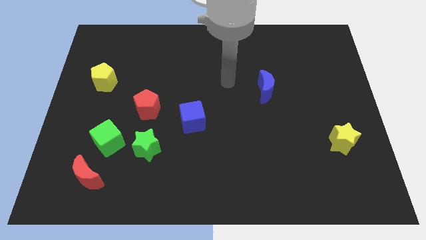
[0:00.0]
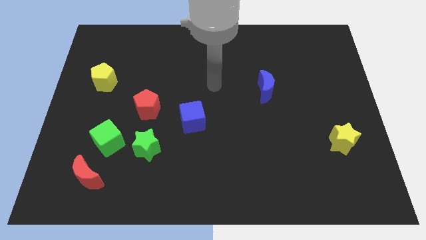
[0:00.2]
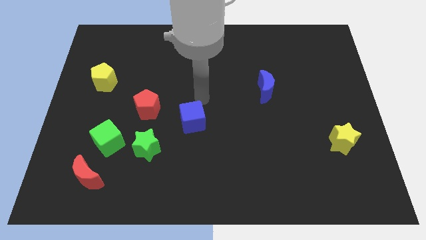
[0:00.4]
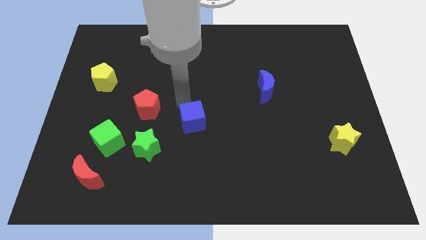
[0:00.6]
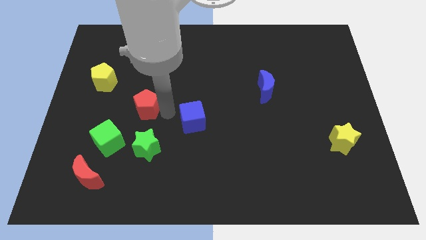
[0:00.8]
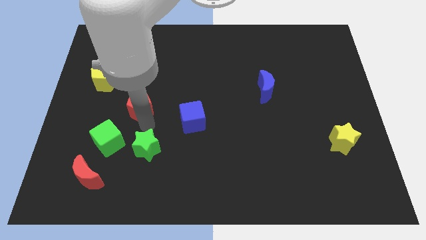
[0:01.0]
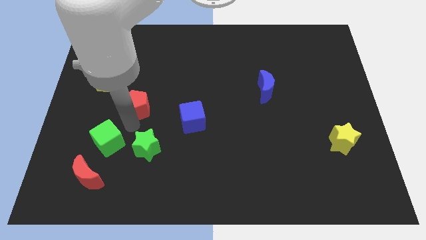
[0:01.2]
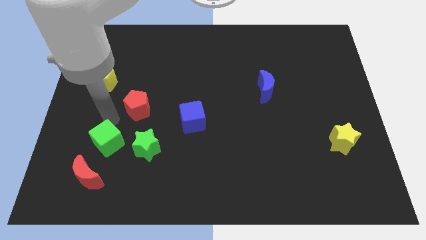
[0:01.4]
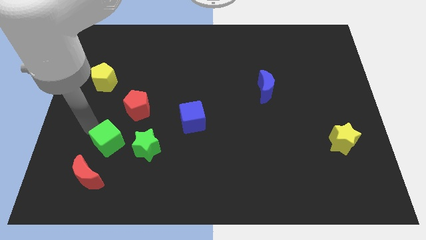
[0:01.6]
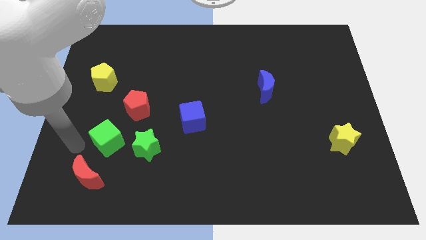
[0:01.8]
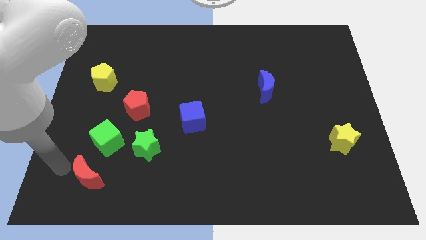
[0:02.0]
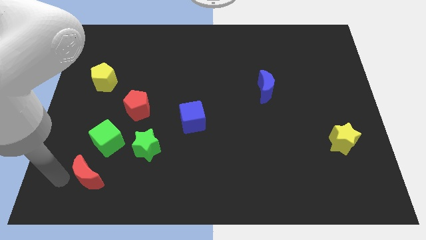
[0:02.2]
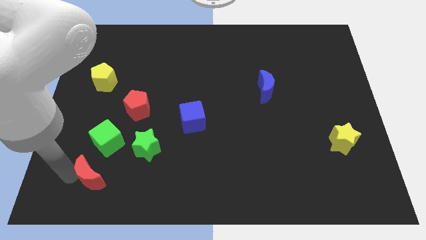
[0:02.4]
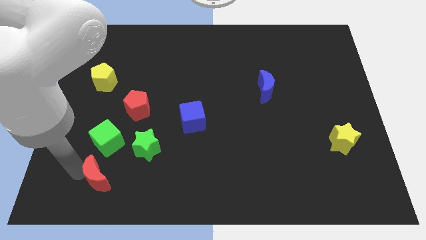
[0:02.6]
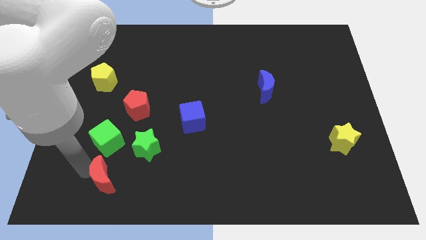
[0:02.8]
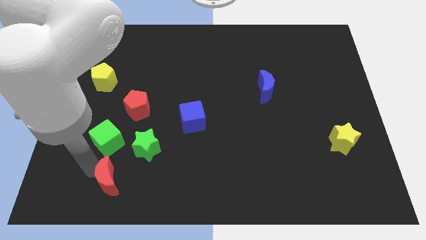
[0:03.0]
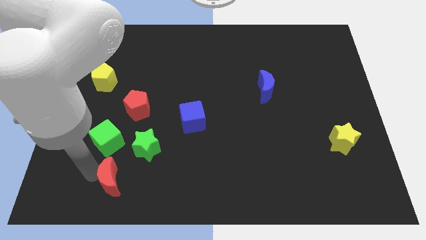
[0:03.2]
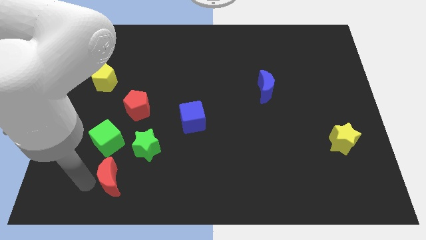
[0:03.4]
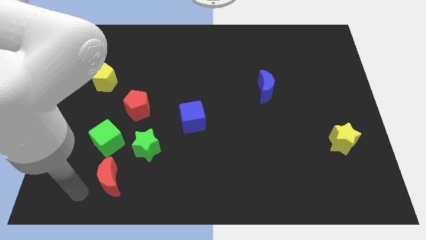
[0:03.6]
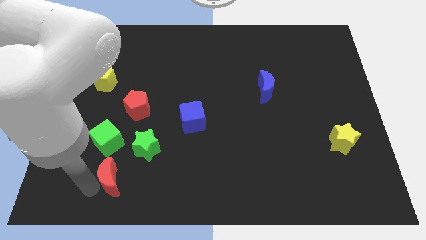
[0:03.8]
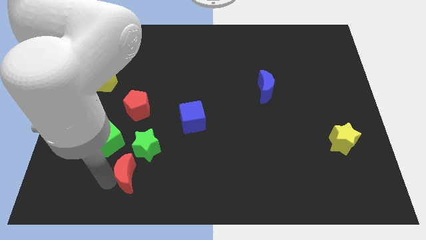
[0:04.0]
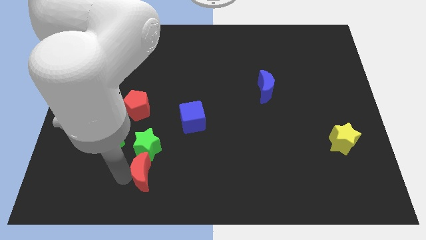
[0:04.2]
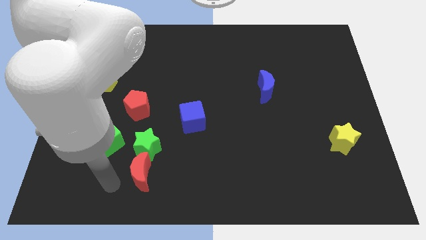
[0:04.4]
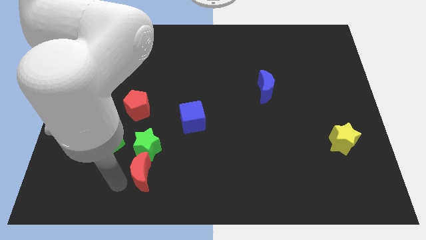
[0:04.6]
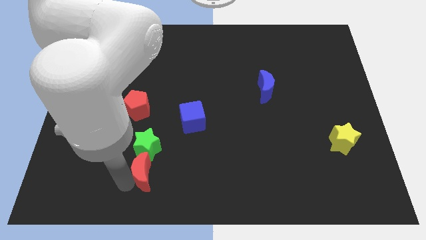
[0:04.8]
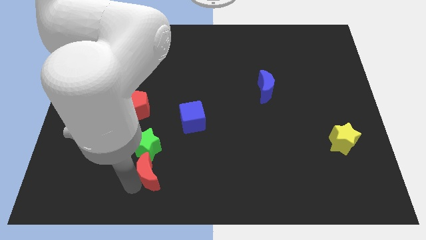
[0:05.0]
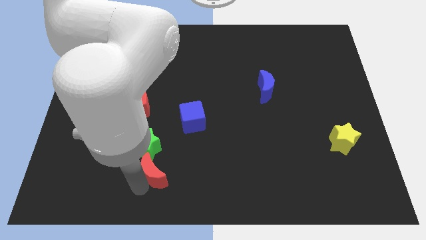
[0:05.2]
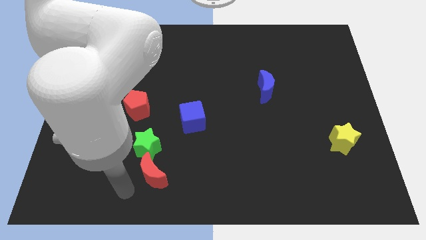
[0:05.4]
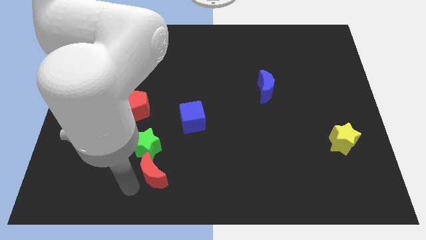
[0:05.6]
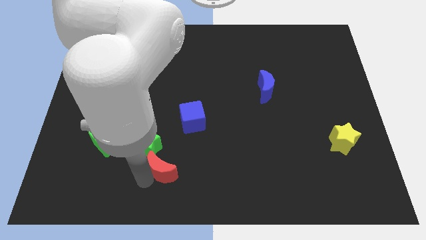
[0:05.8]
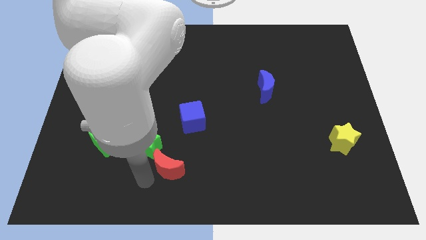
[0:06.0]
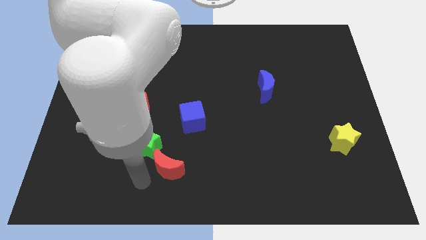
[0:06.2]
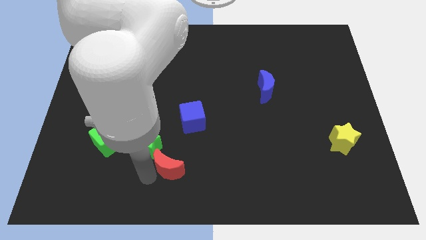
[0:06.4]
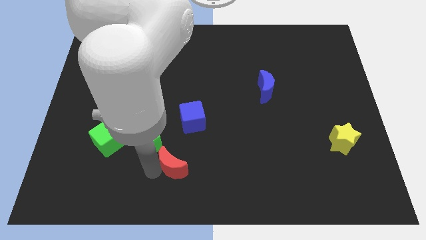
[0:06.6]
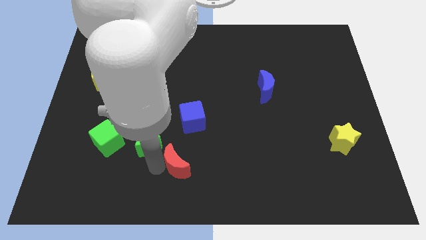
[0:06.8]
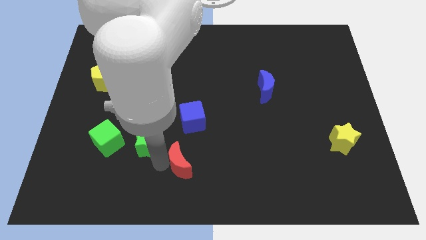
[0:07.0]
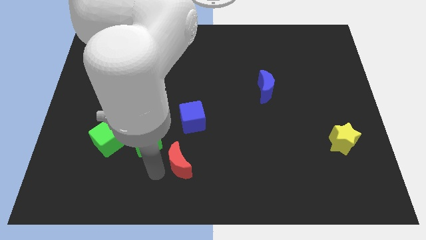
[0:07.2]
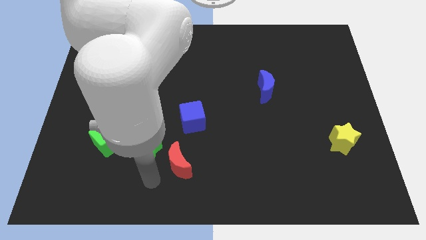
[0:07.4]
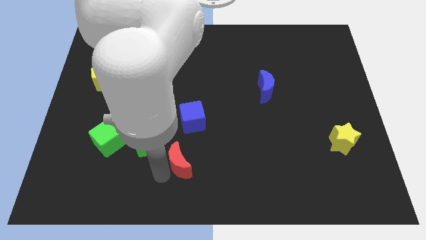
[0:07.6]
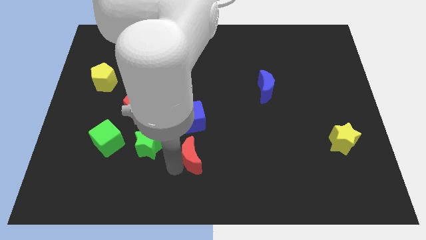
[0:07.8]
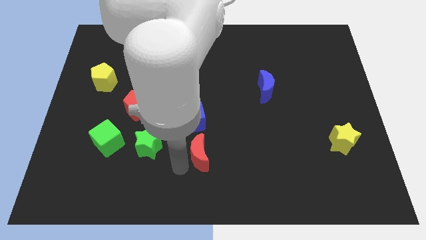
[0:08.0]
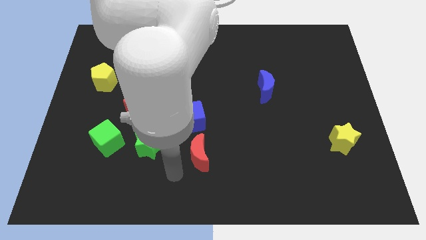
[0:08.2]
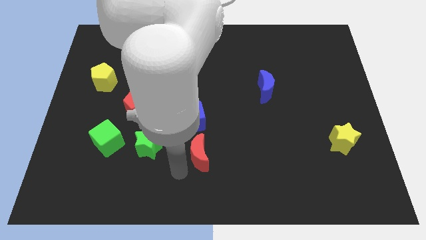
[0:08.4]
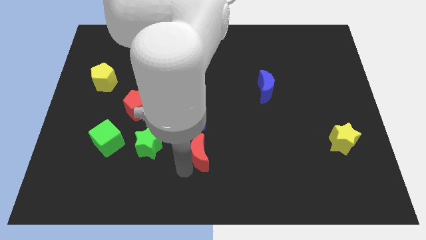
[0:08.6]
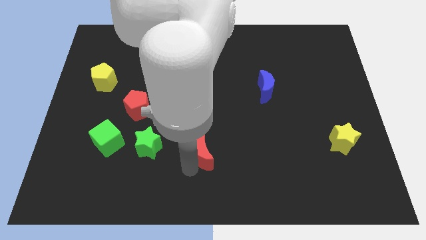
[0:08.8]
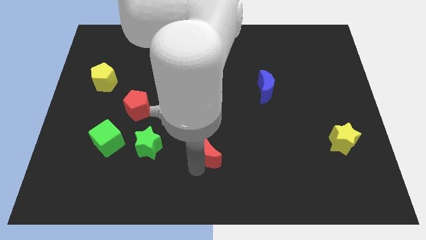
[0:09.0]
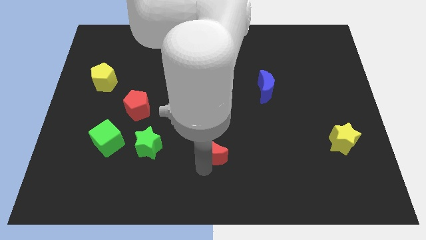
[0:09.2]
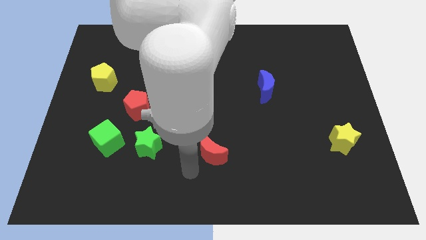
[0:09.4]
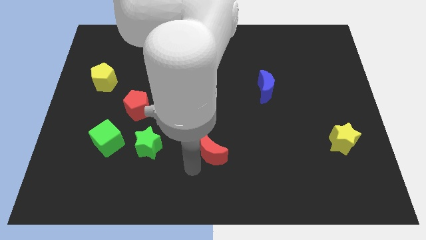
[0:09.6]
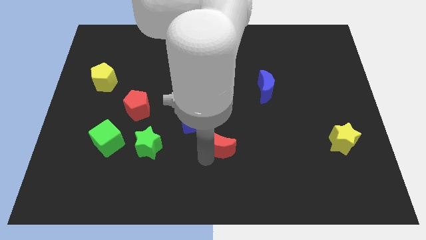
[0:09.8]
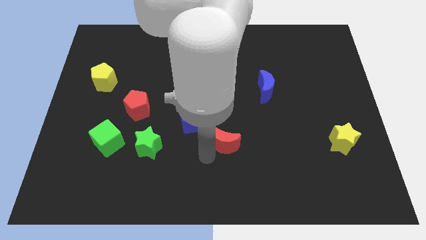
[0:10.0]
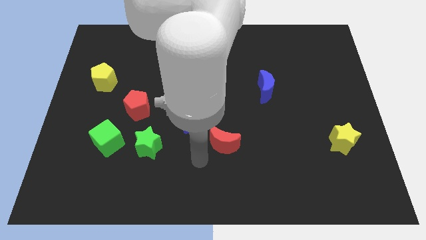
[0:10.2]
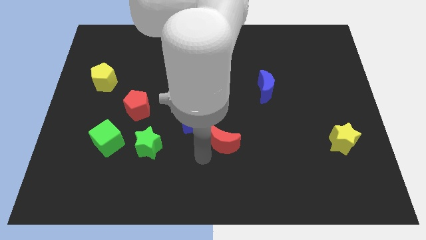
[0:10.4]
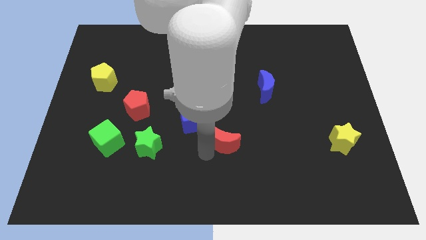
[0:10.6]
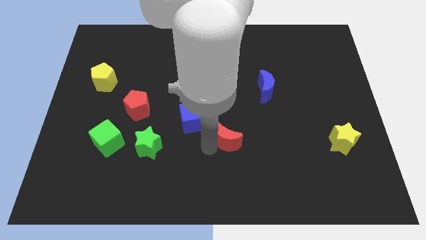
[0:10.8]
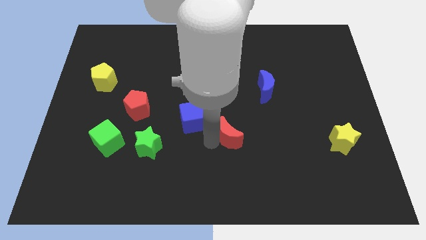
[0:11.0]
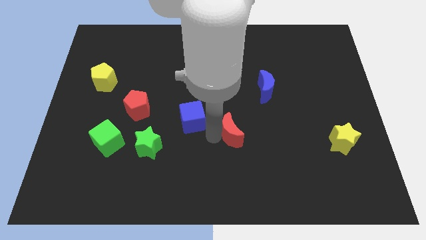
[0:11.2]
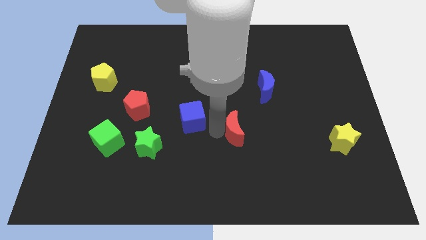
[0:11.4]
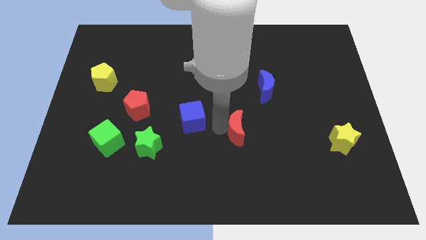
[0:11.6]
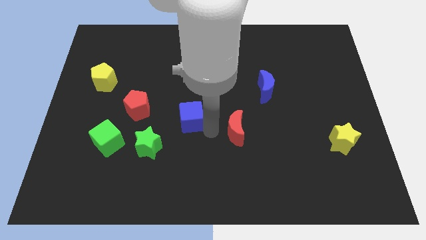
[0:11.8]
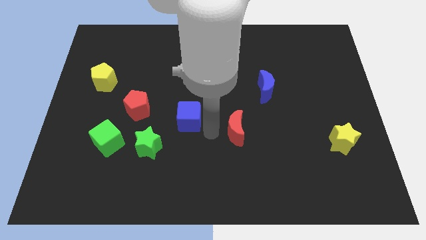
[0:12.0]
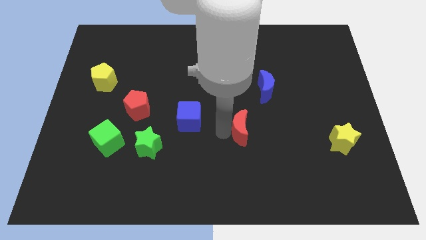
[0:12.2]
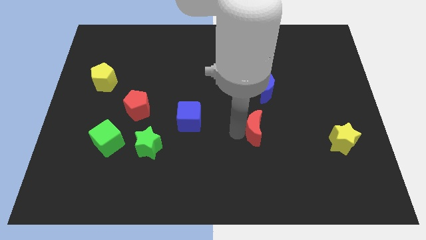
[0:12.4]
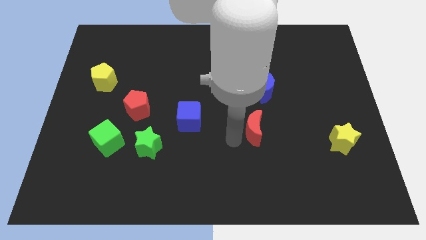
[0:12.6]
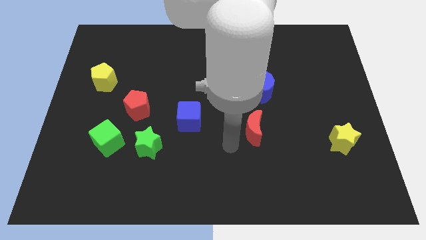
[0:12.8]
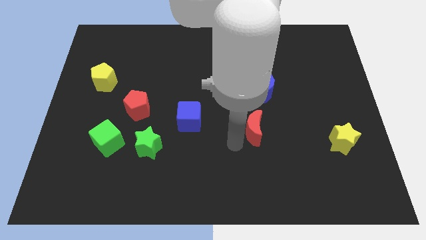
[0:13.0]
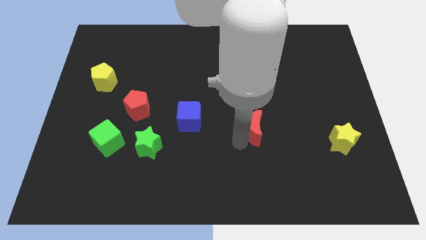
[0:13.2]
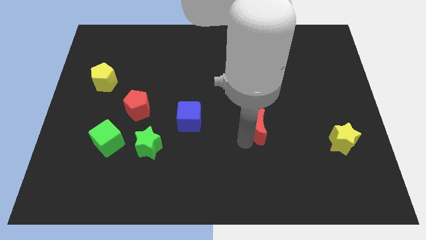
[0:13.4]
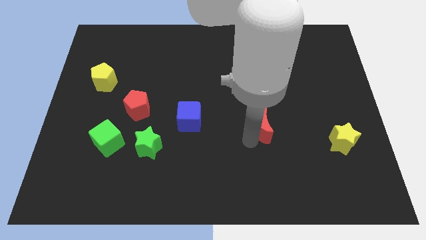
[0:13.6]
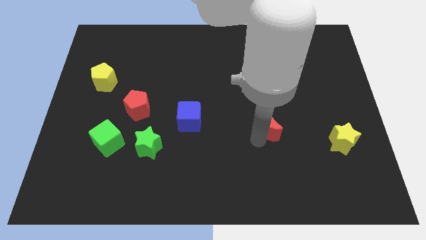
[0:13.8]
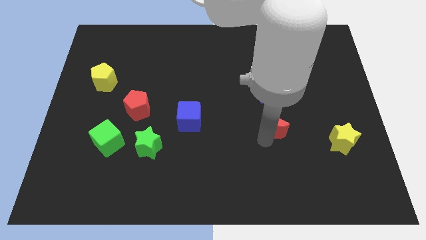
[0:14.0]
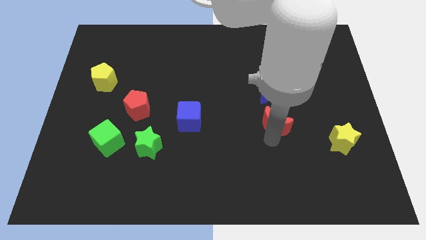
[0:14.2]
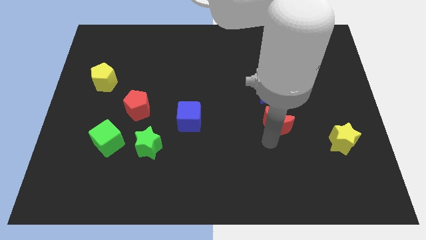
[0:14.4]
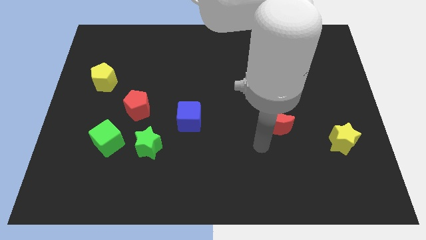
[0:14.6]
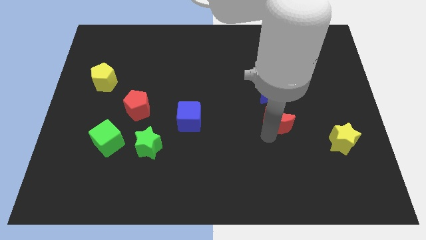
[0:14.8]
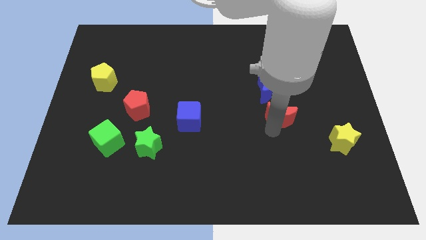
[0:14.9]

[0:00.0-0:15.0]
slide the red moon to the bottom right of the blue moon
